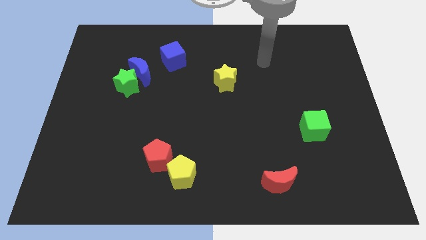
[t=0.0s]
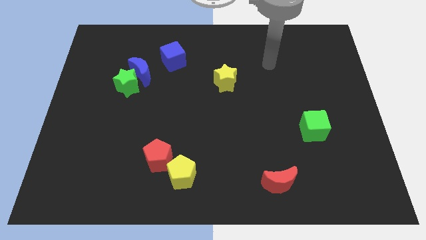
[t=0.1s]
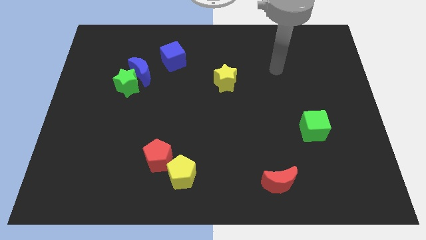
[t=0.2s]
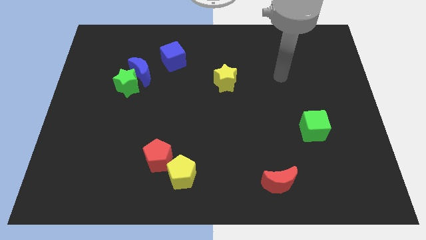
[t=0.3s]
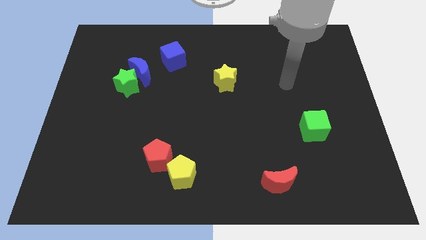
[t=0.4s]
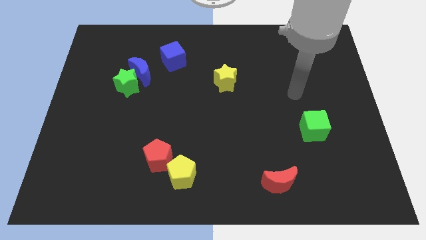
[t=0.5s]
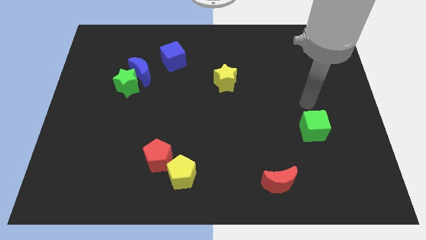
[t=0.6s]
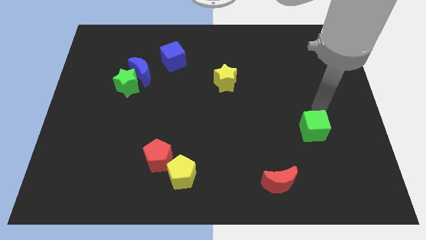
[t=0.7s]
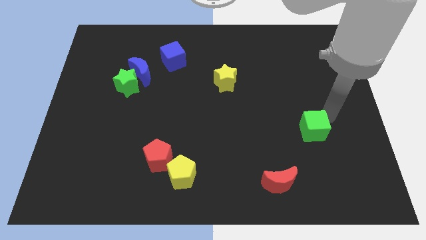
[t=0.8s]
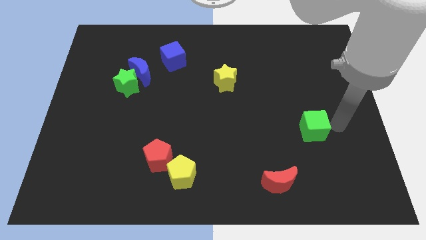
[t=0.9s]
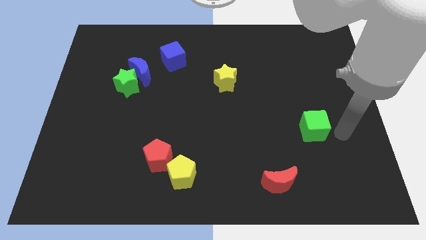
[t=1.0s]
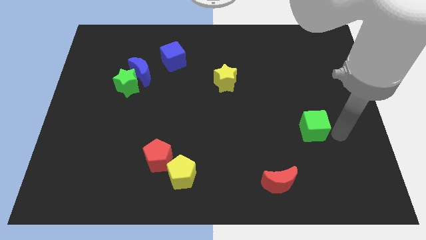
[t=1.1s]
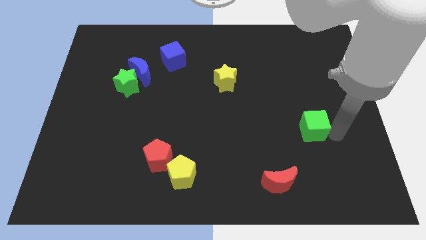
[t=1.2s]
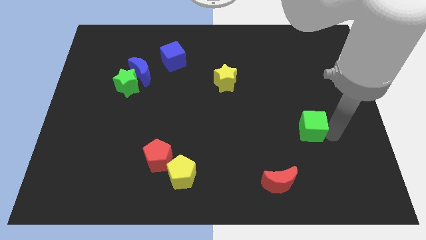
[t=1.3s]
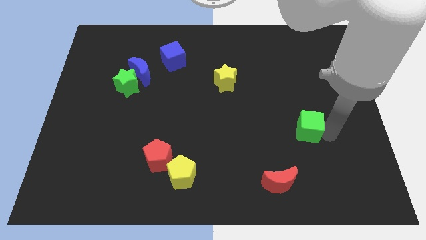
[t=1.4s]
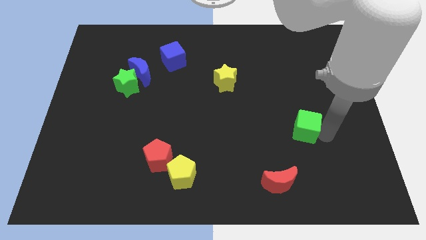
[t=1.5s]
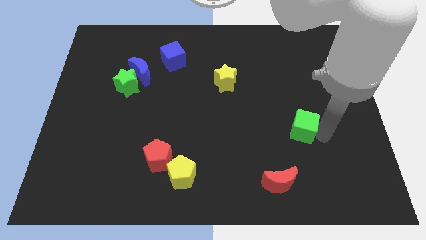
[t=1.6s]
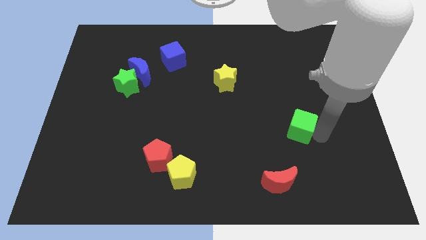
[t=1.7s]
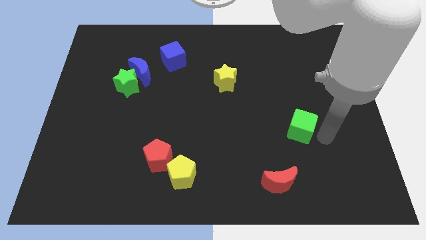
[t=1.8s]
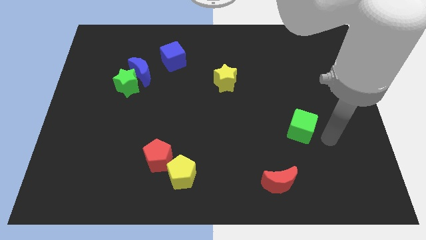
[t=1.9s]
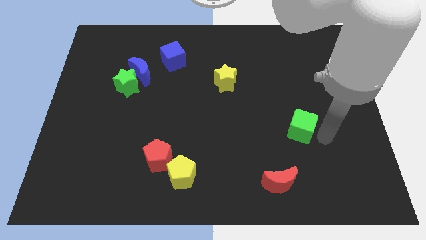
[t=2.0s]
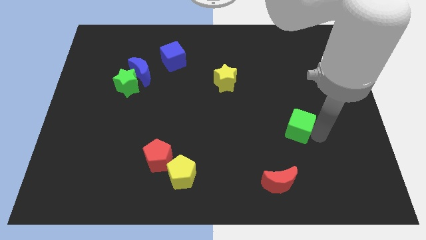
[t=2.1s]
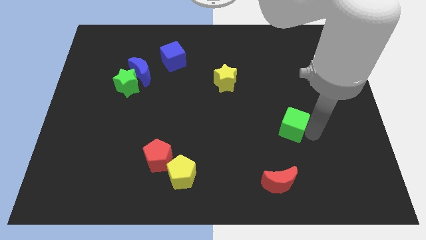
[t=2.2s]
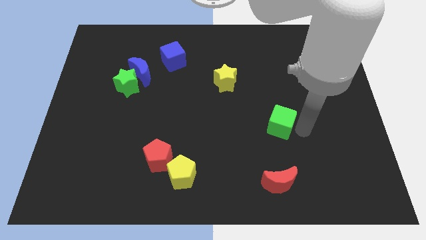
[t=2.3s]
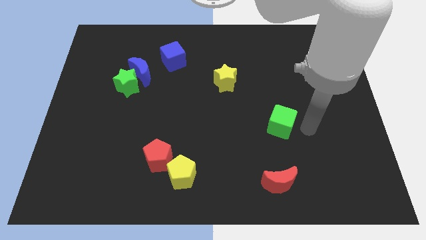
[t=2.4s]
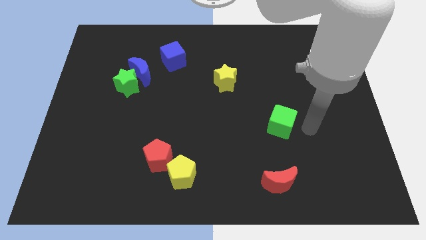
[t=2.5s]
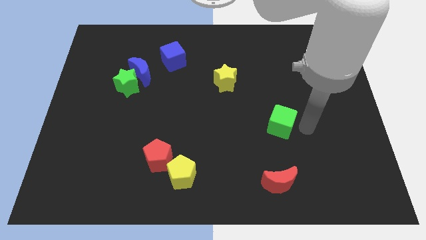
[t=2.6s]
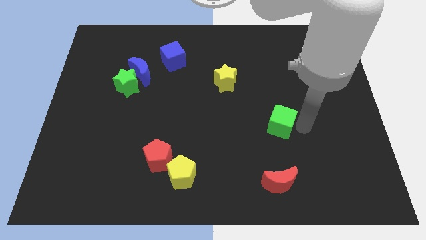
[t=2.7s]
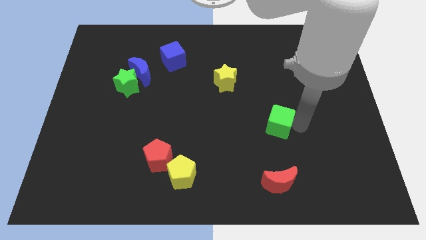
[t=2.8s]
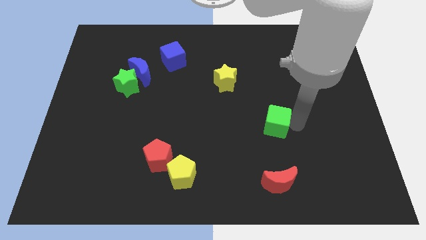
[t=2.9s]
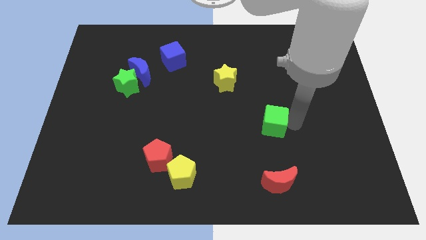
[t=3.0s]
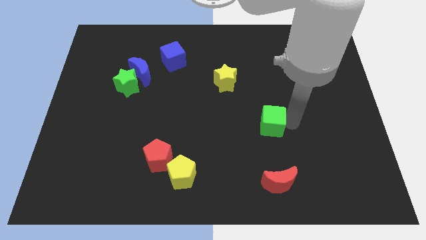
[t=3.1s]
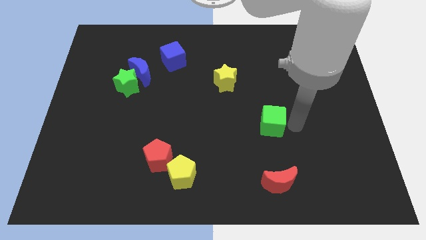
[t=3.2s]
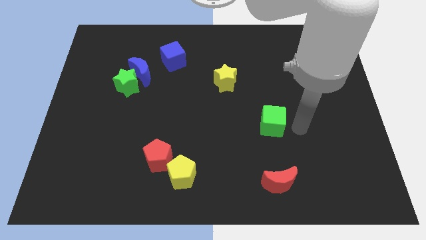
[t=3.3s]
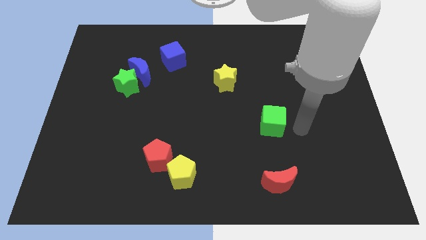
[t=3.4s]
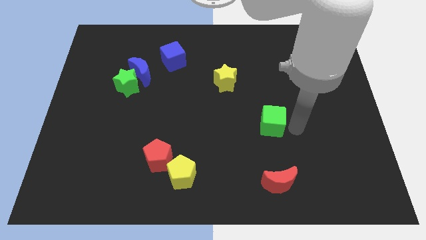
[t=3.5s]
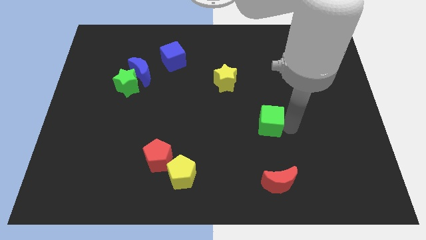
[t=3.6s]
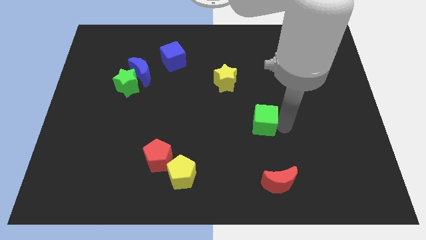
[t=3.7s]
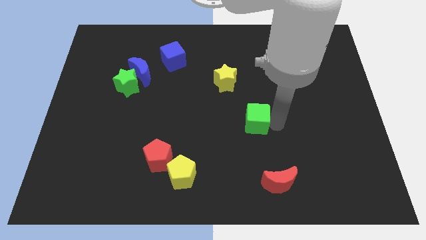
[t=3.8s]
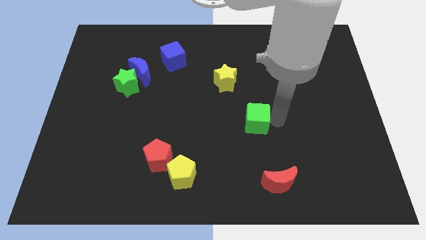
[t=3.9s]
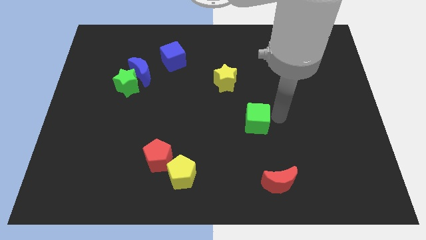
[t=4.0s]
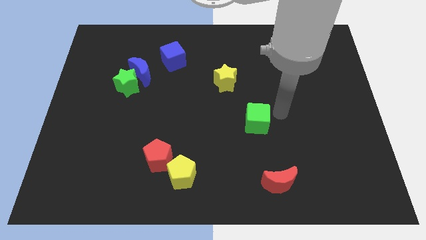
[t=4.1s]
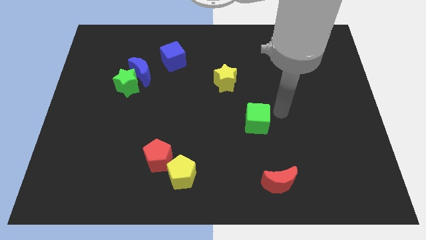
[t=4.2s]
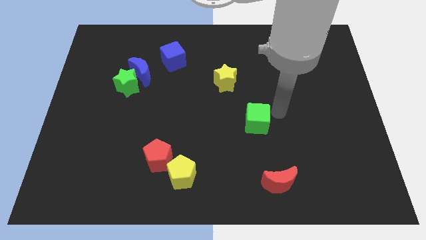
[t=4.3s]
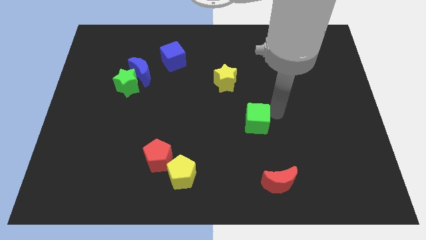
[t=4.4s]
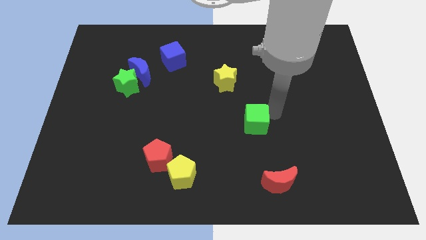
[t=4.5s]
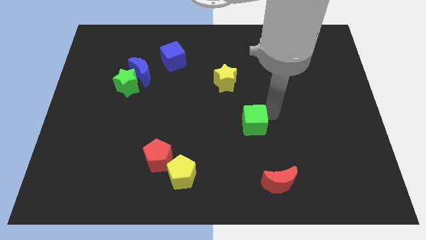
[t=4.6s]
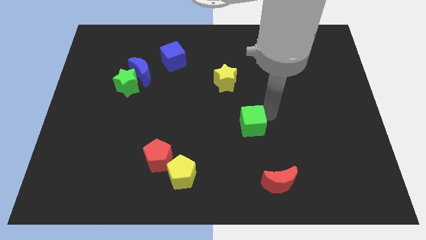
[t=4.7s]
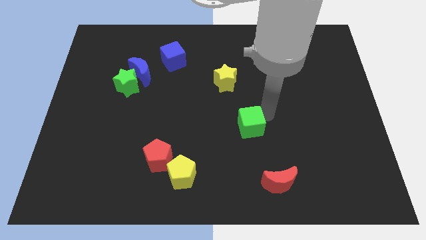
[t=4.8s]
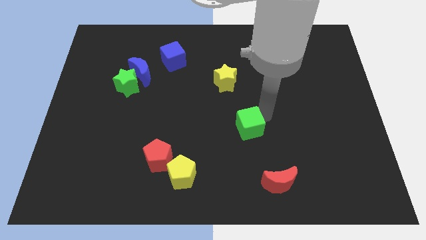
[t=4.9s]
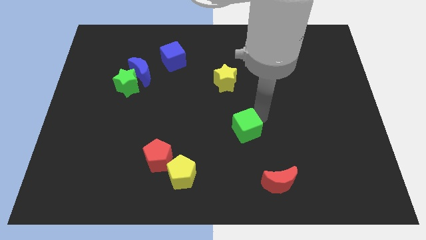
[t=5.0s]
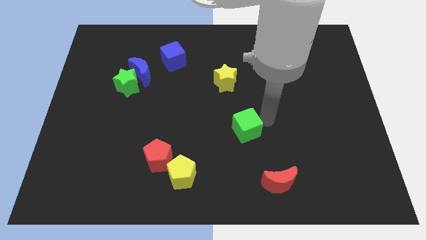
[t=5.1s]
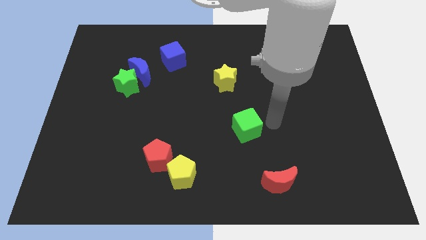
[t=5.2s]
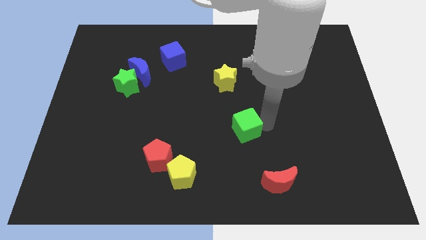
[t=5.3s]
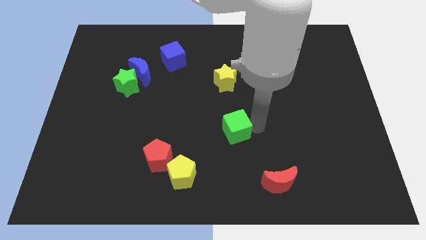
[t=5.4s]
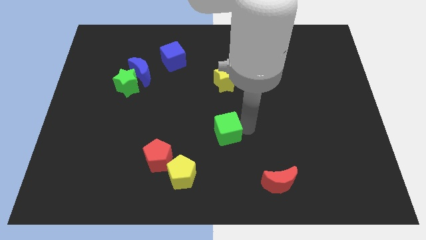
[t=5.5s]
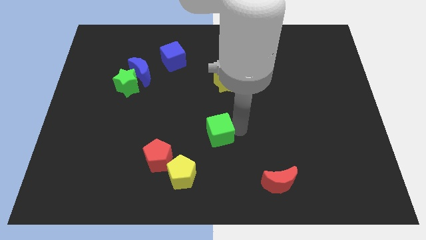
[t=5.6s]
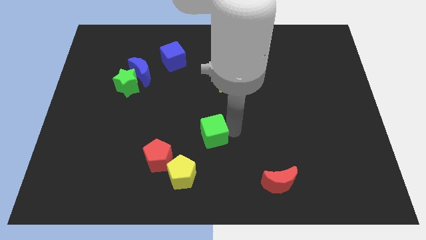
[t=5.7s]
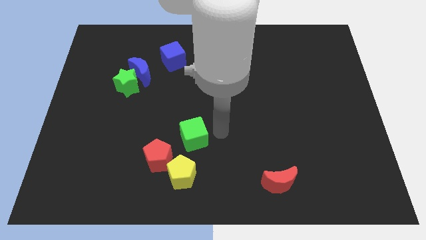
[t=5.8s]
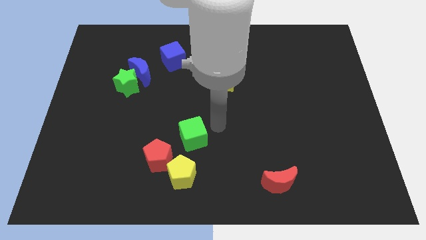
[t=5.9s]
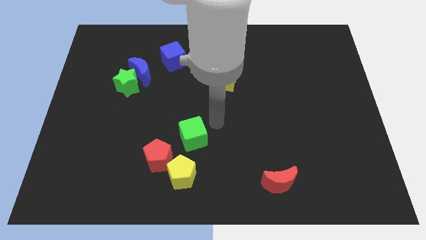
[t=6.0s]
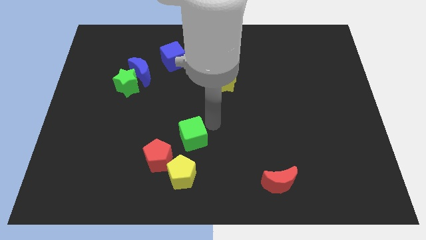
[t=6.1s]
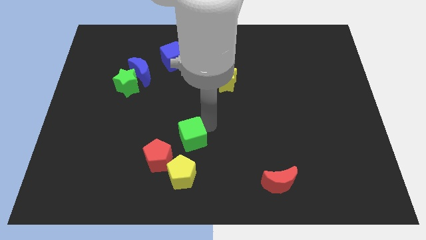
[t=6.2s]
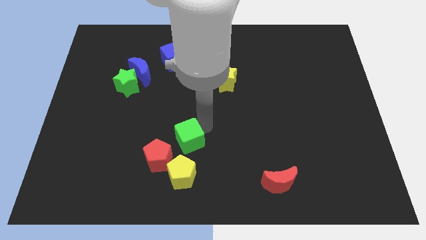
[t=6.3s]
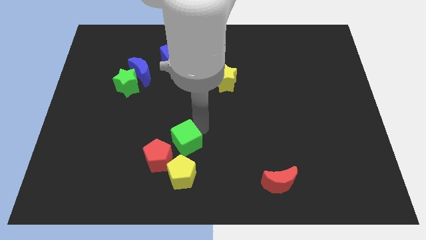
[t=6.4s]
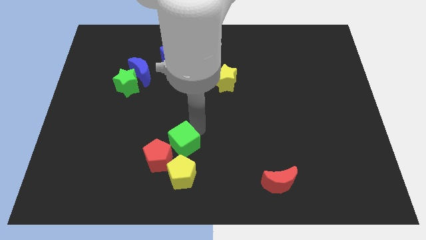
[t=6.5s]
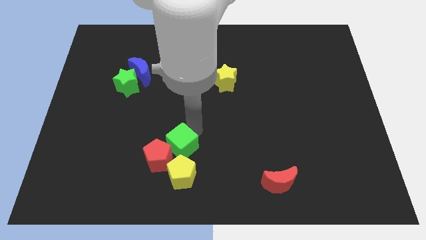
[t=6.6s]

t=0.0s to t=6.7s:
move the green cube close to the red pentagon

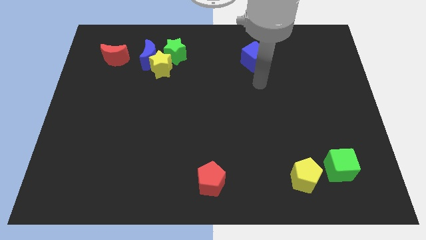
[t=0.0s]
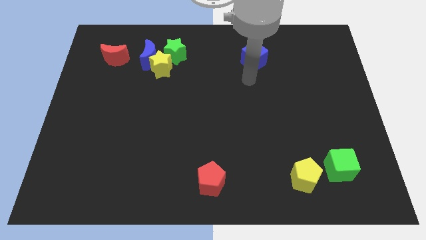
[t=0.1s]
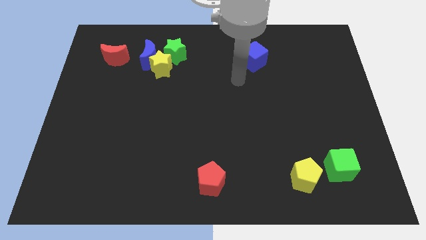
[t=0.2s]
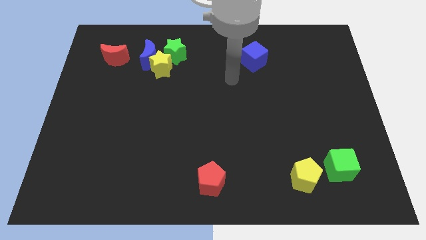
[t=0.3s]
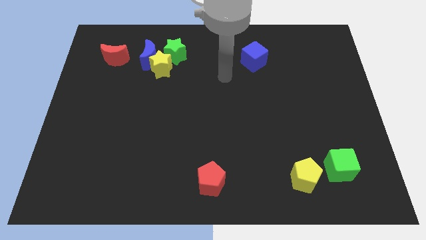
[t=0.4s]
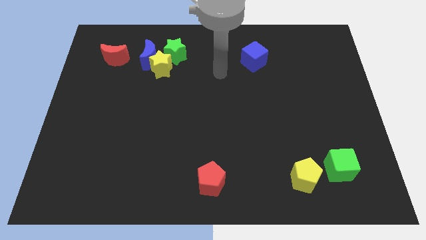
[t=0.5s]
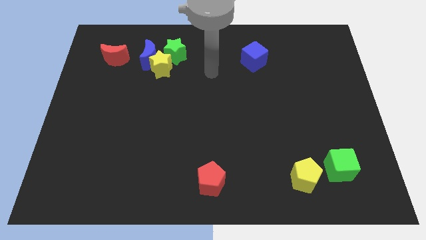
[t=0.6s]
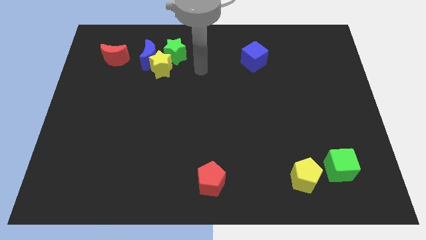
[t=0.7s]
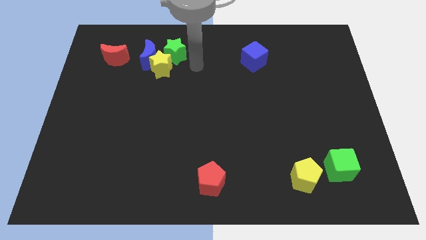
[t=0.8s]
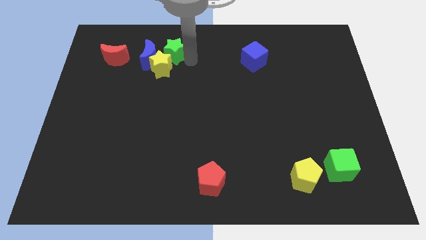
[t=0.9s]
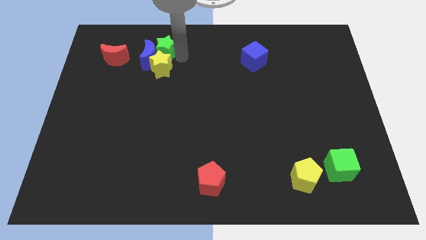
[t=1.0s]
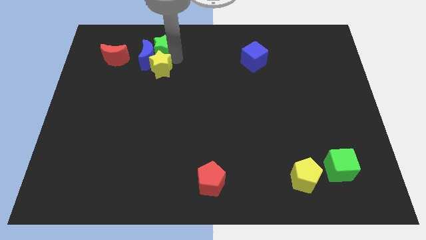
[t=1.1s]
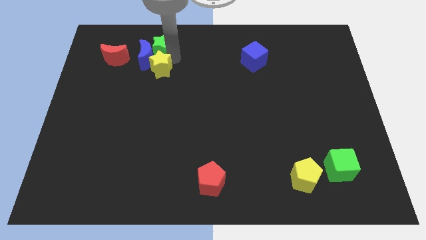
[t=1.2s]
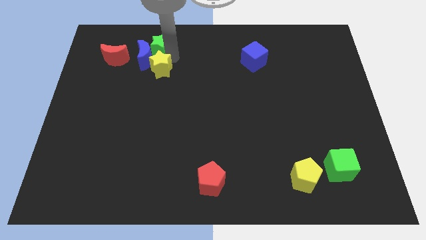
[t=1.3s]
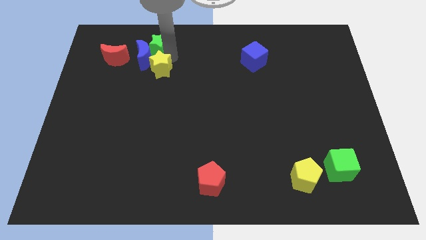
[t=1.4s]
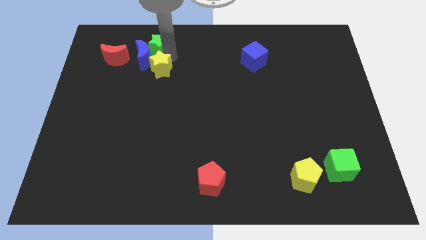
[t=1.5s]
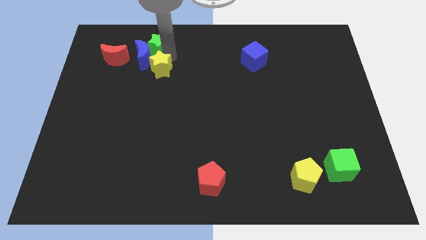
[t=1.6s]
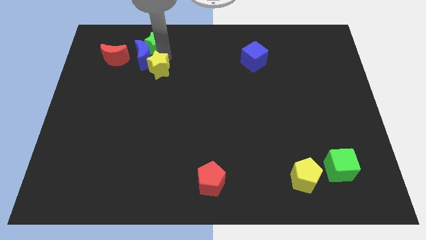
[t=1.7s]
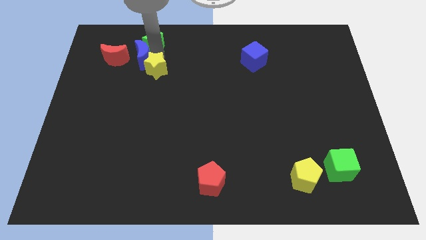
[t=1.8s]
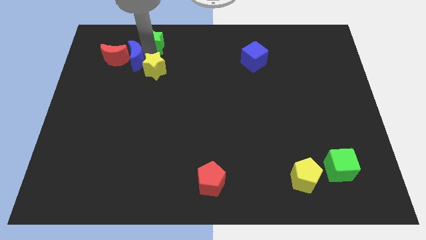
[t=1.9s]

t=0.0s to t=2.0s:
slide the blue moon towards the red moon
